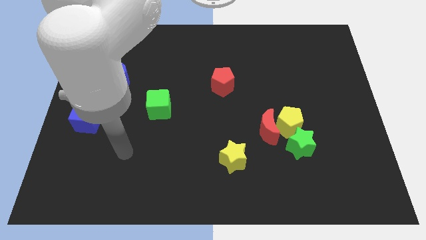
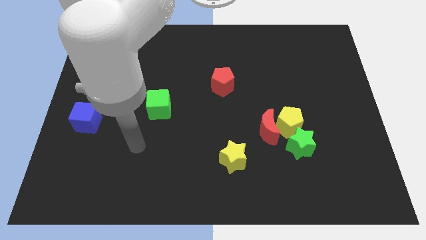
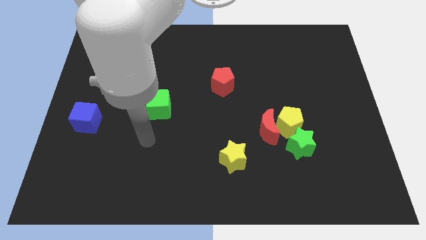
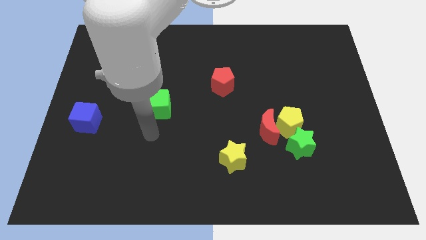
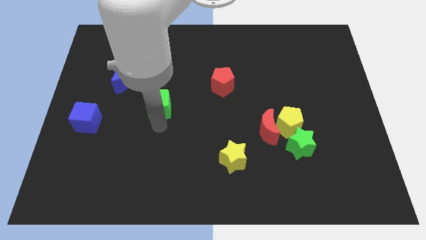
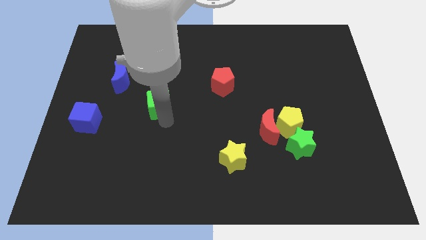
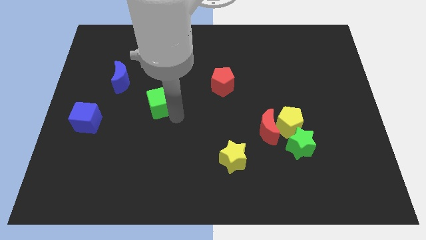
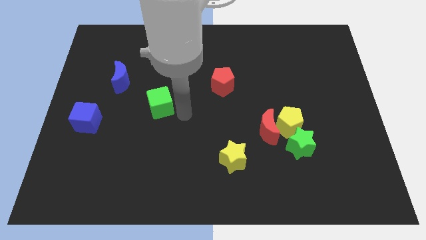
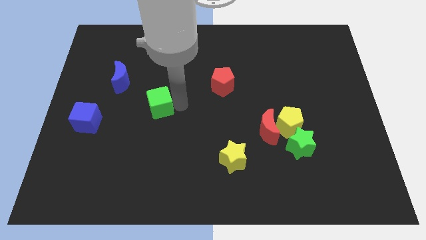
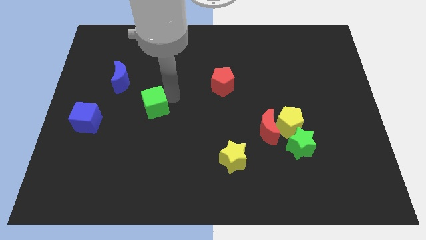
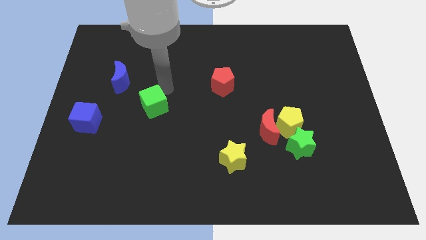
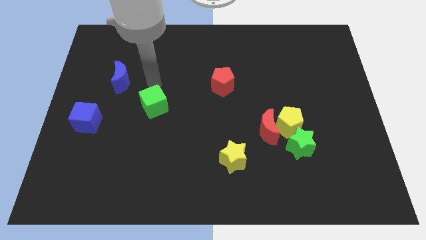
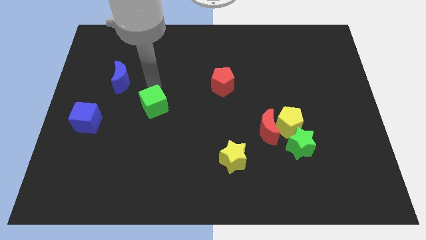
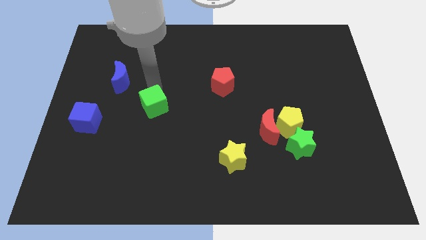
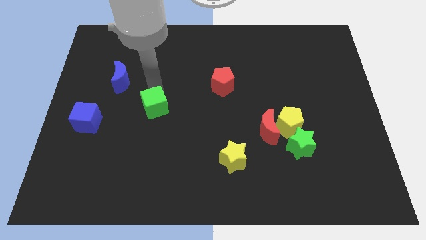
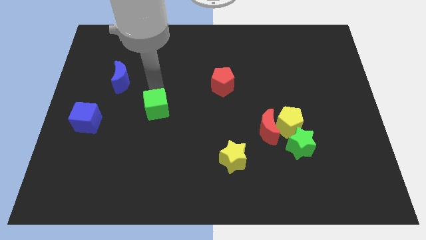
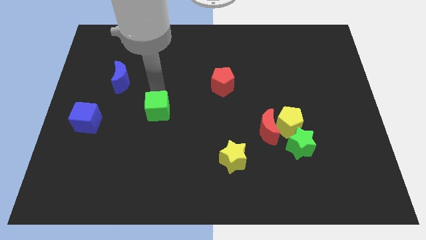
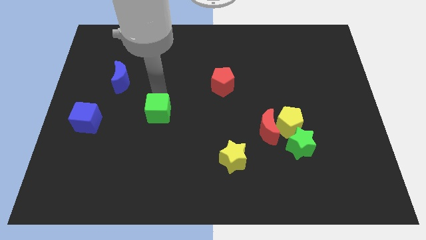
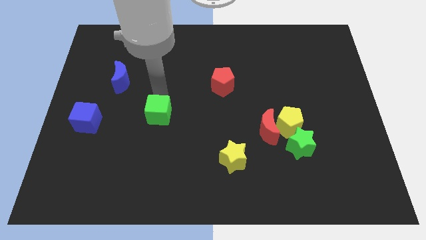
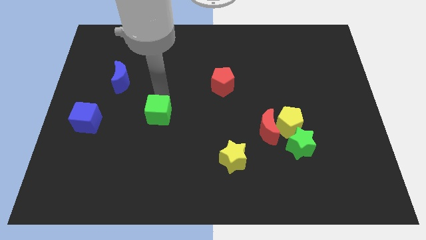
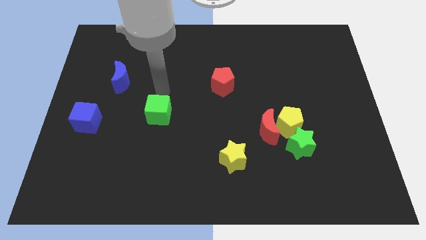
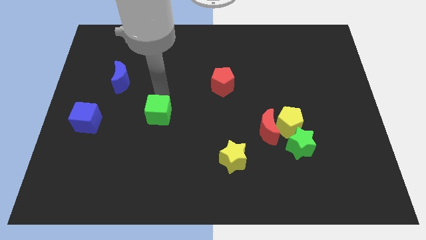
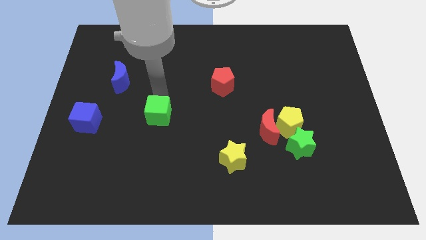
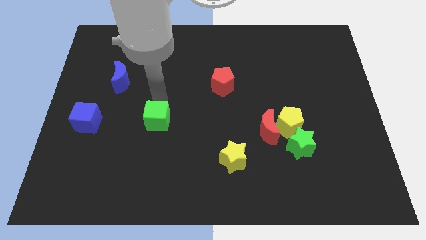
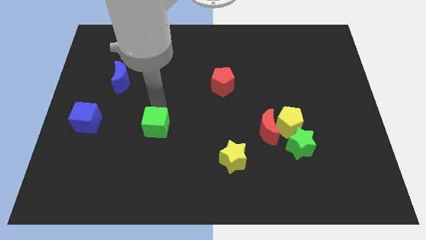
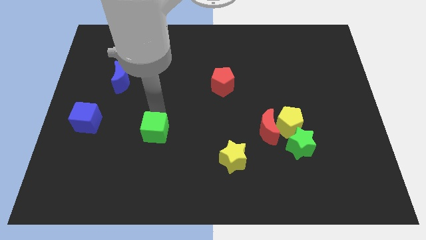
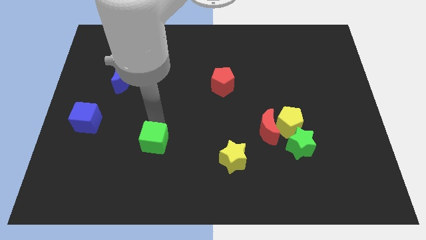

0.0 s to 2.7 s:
slide the green cube down a little bit

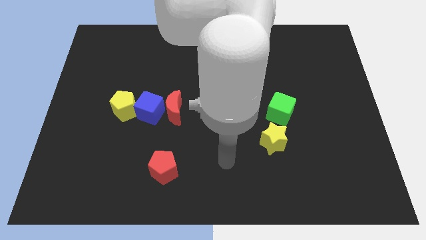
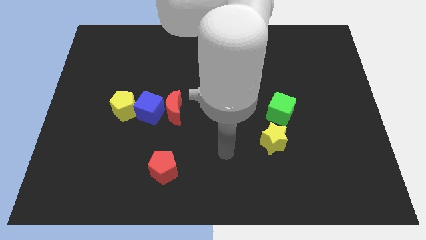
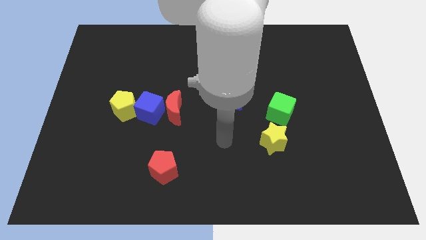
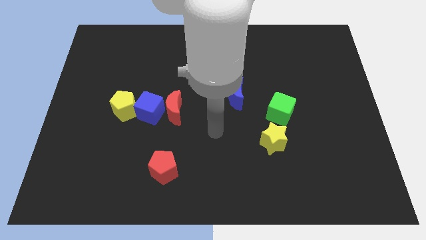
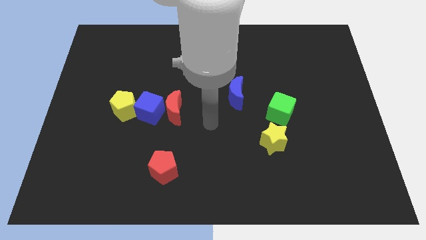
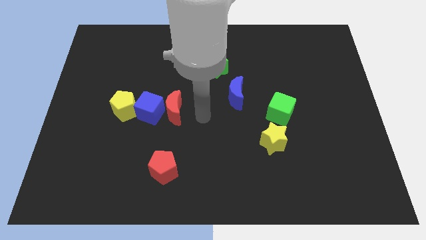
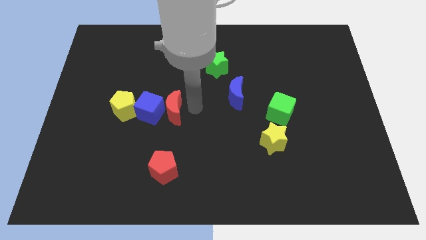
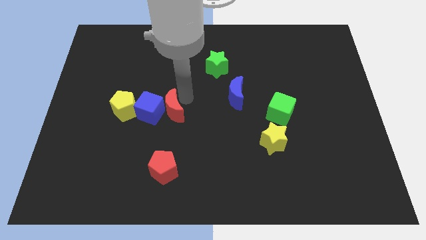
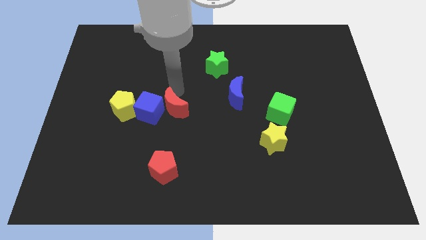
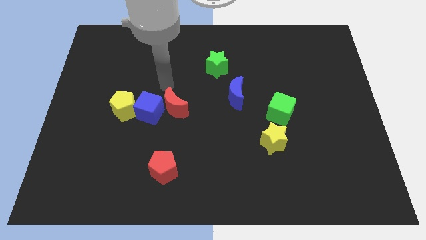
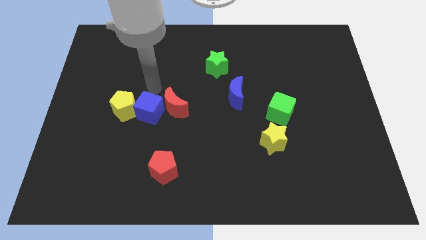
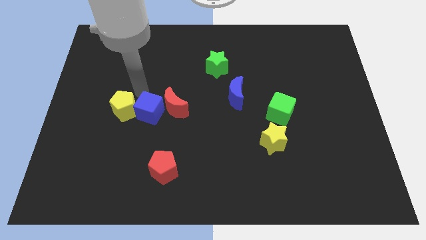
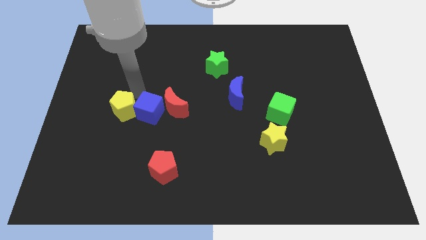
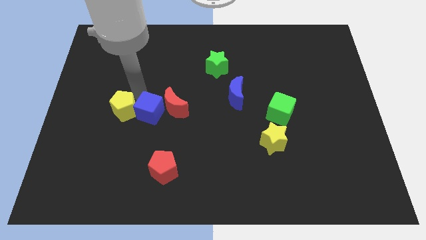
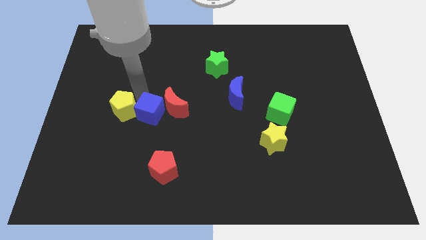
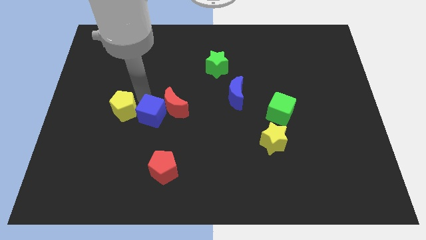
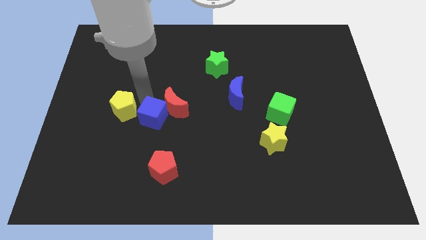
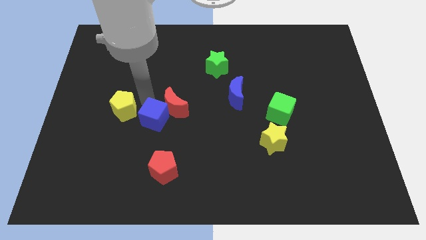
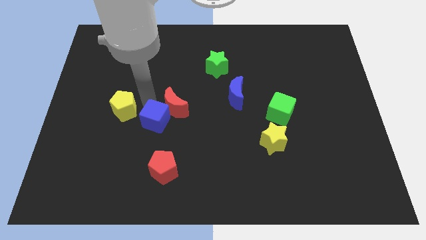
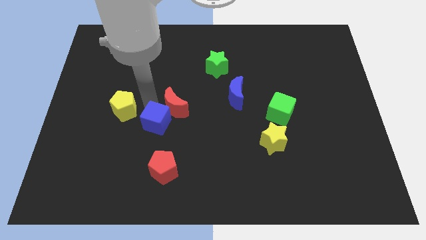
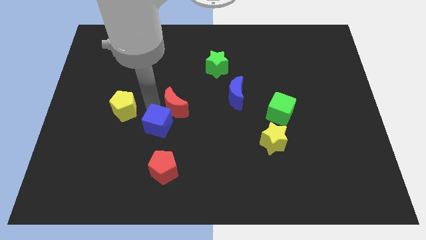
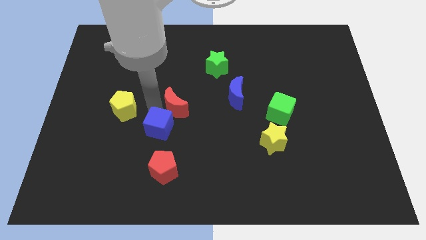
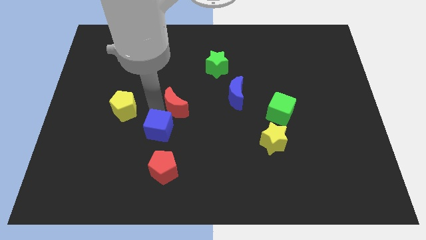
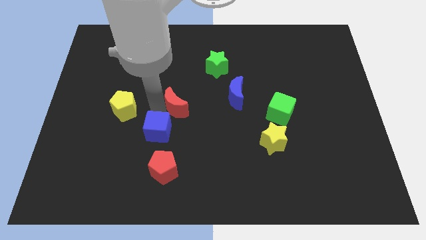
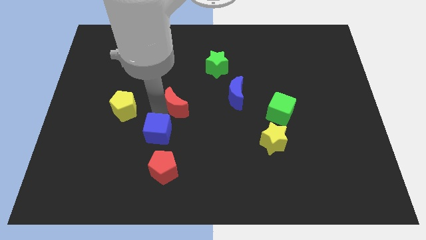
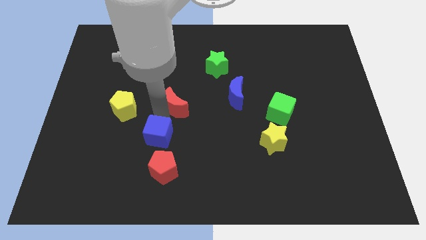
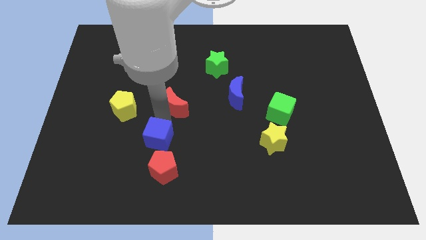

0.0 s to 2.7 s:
slightly push the blue cube down and right diagonally

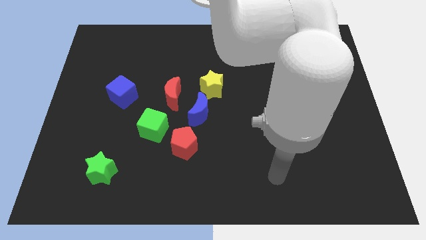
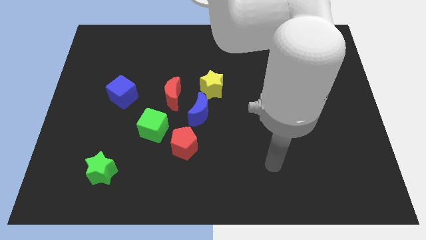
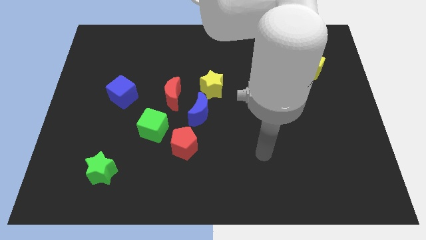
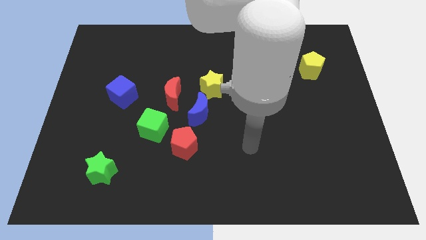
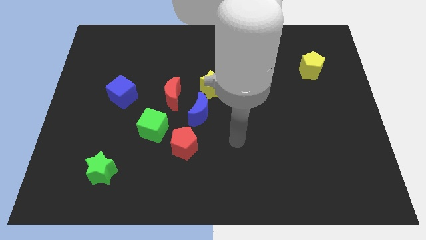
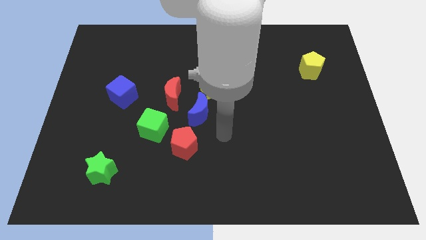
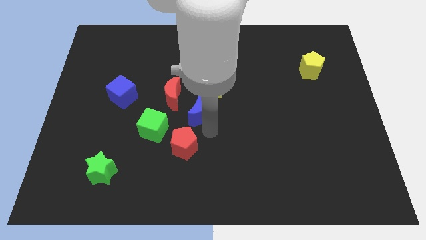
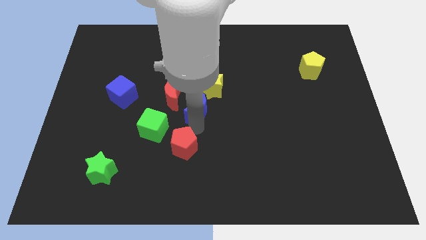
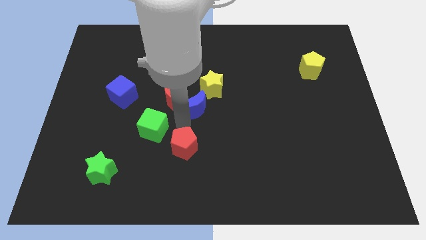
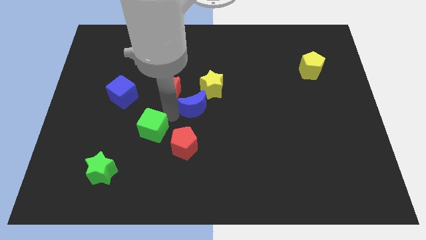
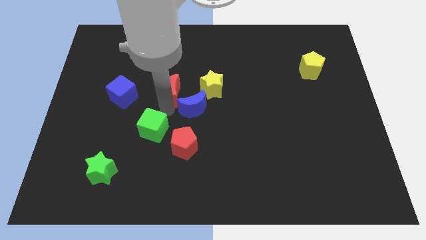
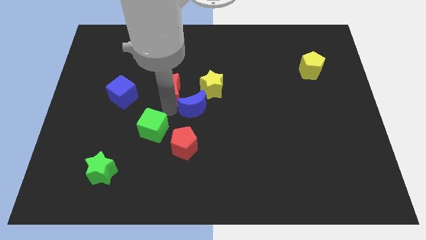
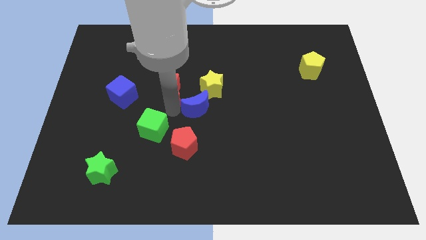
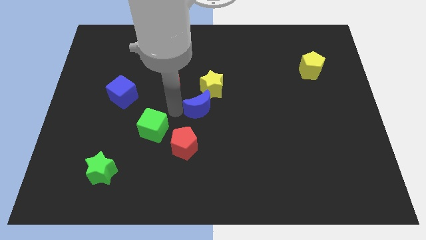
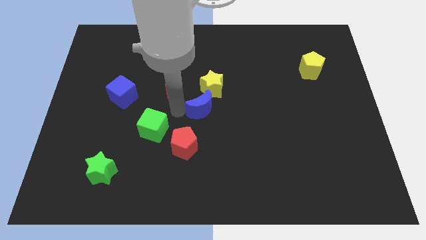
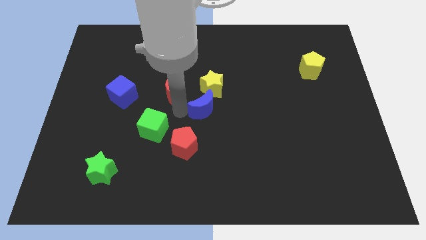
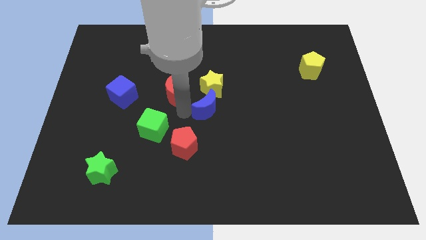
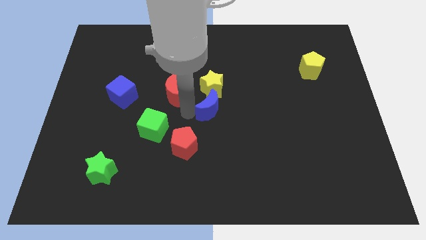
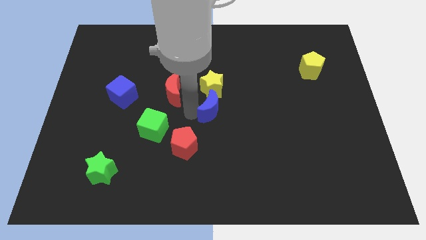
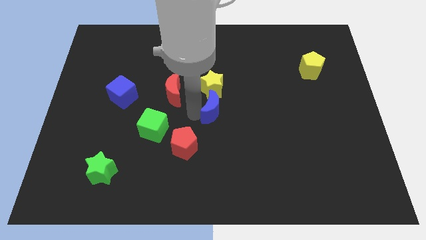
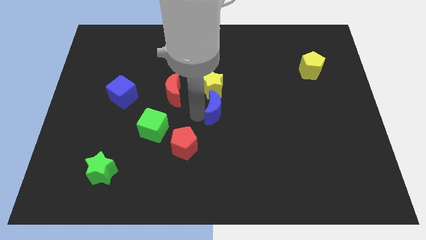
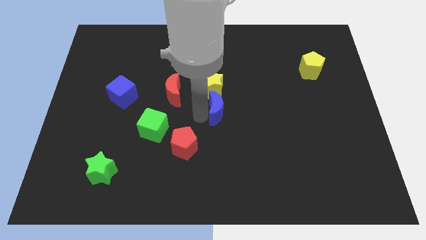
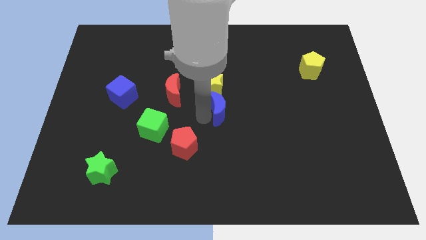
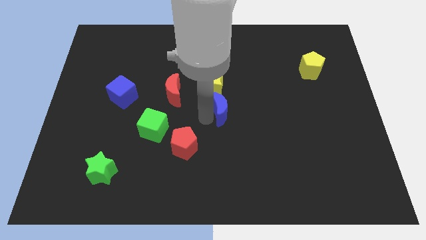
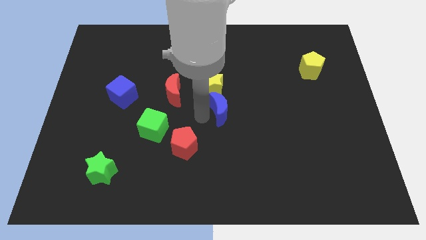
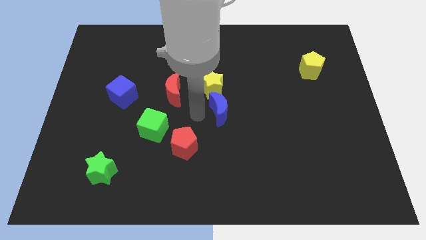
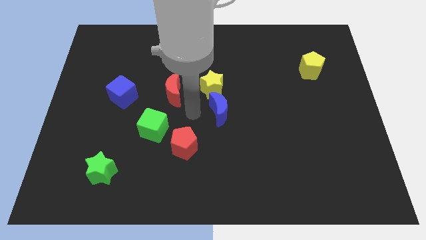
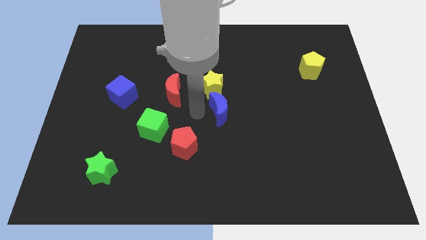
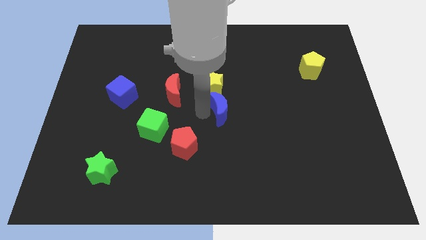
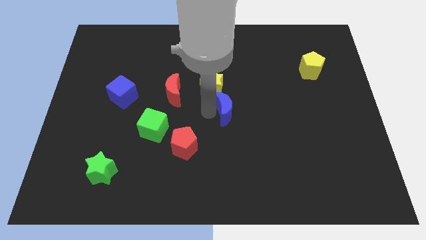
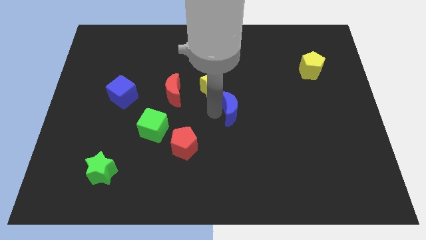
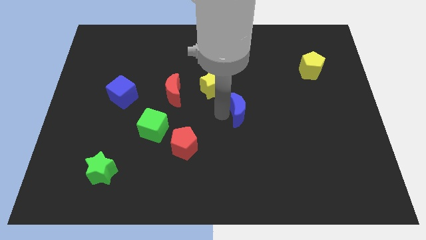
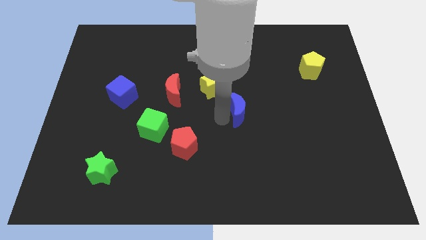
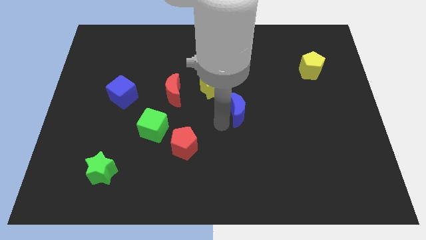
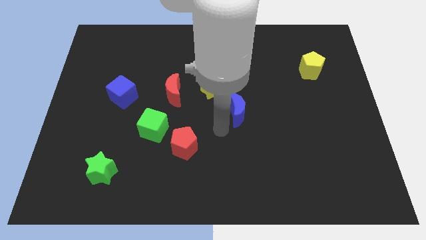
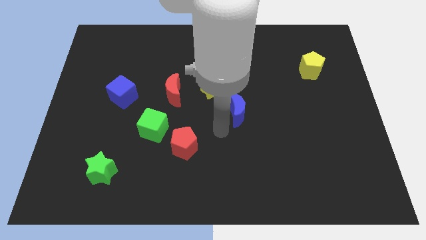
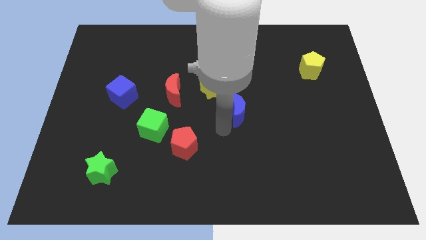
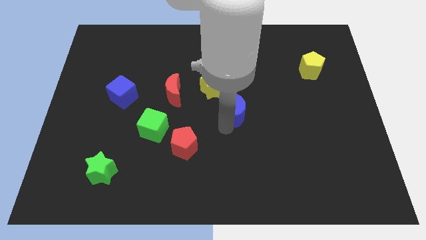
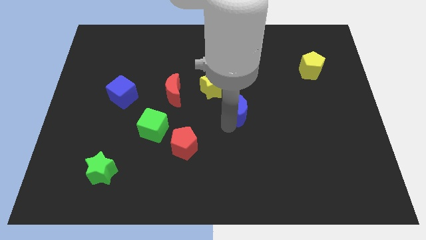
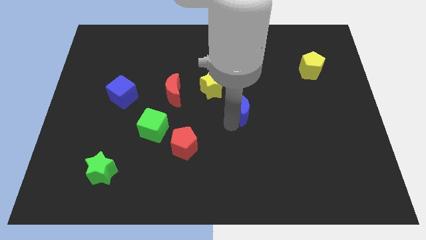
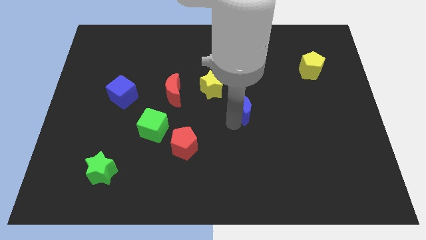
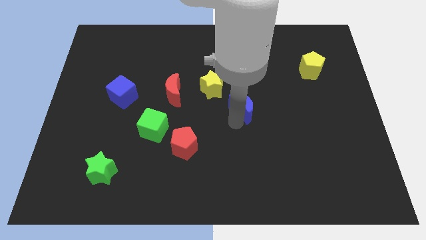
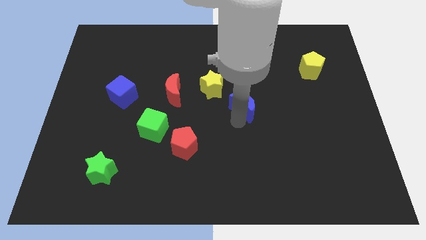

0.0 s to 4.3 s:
slightly push the blue moon up and right
